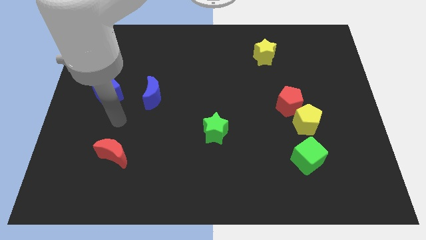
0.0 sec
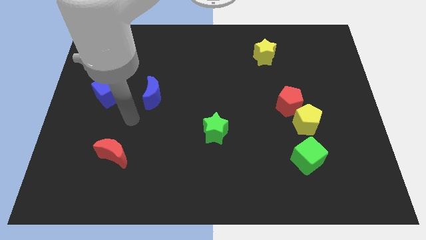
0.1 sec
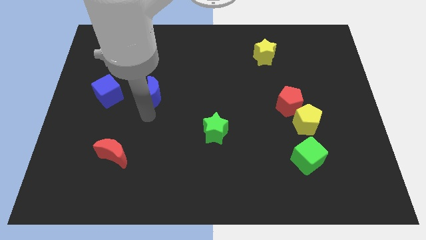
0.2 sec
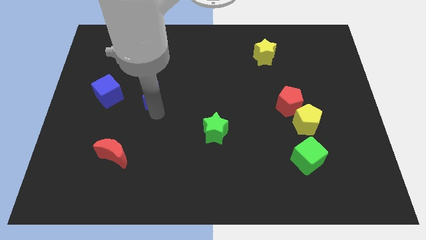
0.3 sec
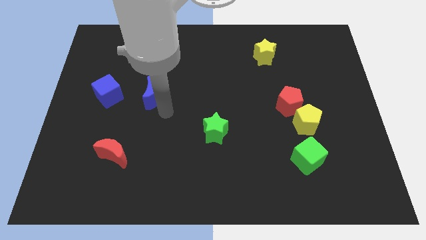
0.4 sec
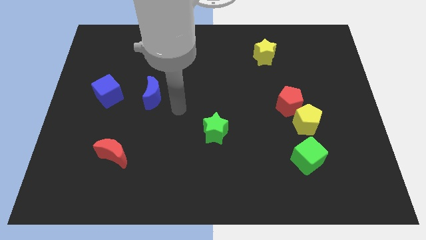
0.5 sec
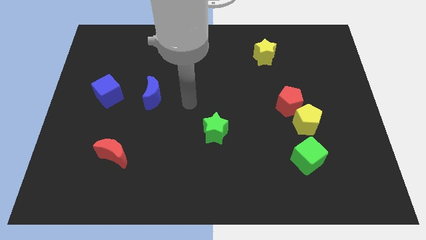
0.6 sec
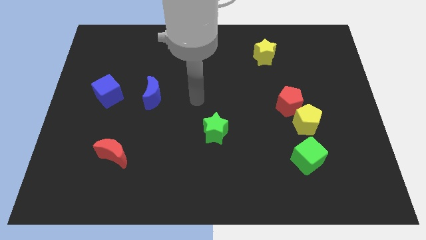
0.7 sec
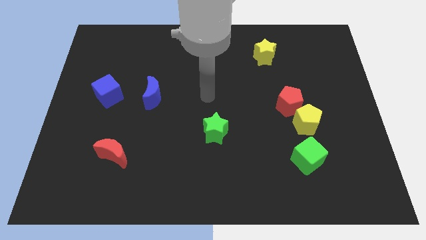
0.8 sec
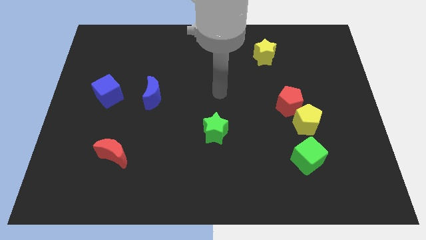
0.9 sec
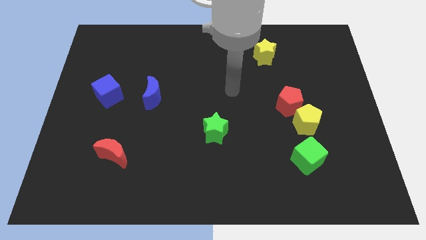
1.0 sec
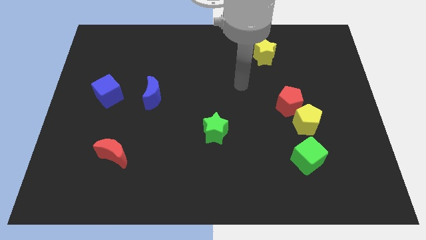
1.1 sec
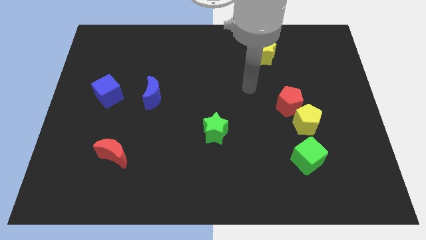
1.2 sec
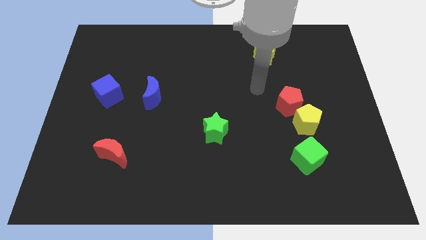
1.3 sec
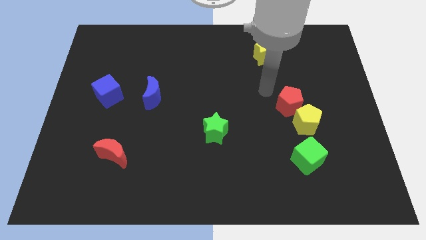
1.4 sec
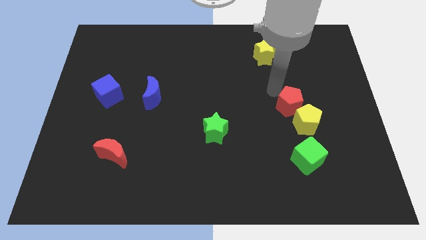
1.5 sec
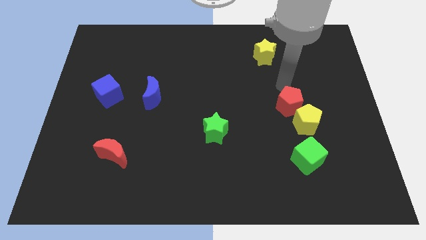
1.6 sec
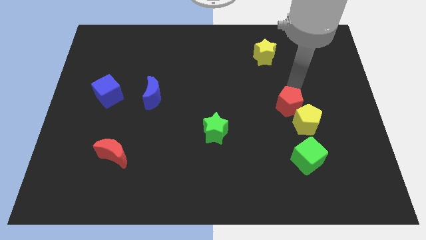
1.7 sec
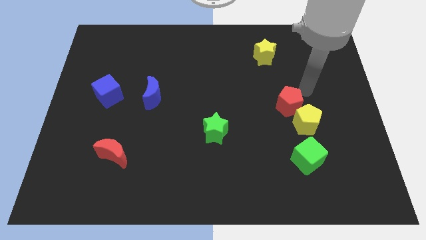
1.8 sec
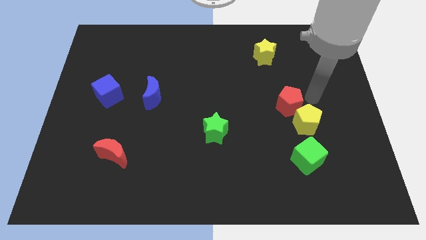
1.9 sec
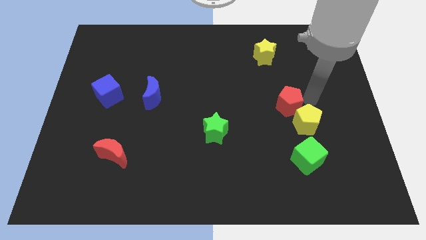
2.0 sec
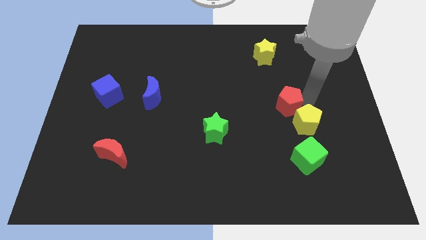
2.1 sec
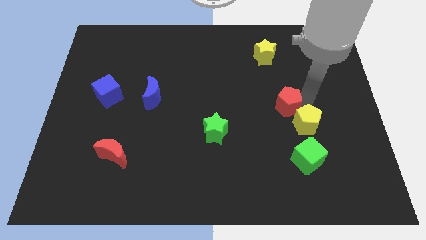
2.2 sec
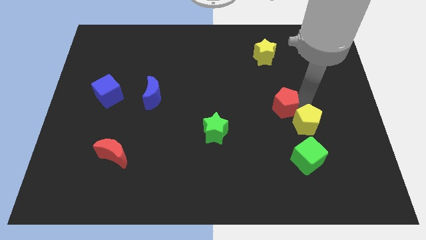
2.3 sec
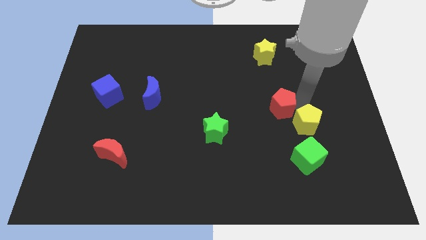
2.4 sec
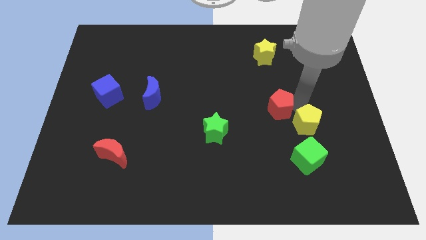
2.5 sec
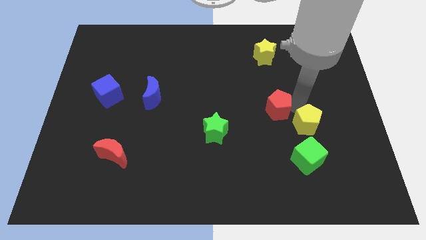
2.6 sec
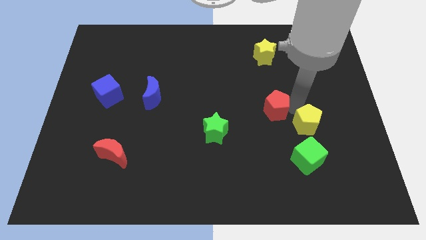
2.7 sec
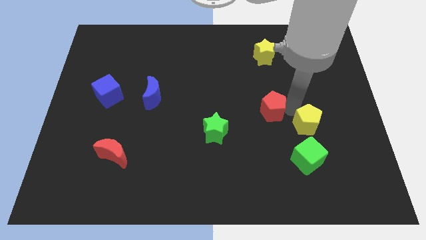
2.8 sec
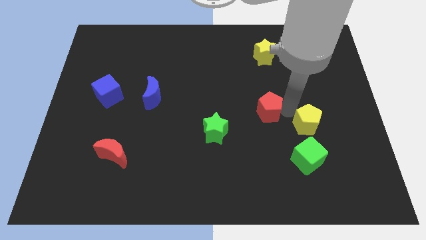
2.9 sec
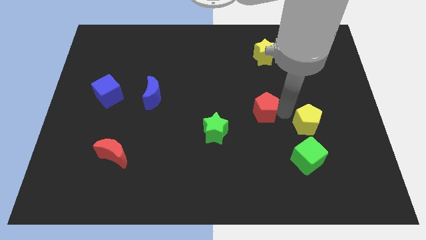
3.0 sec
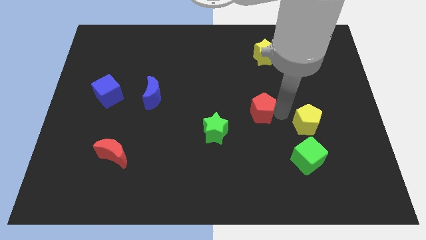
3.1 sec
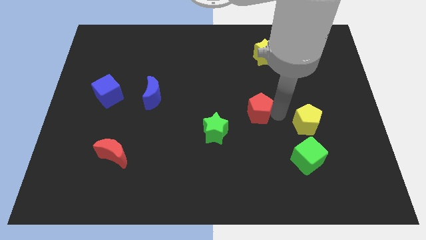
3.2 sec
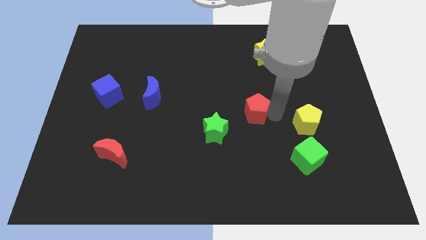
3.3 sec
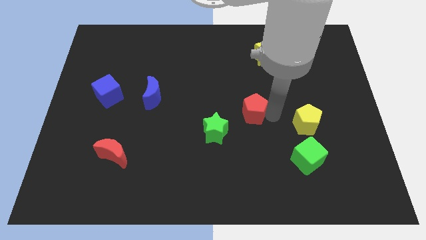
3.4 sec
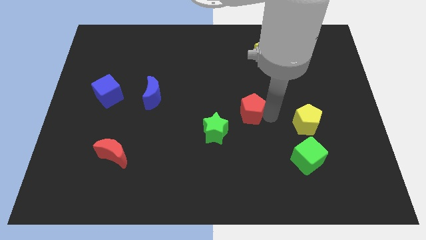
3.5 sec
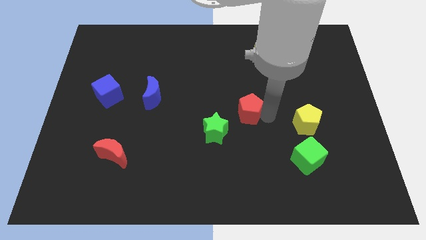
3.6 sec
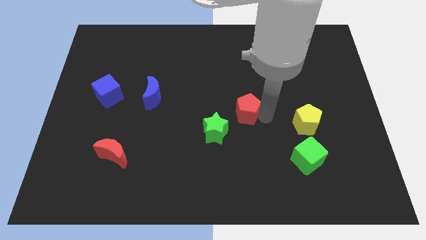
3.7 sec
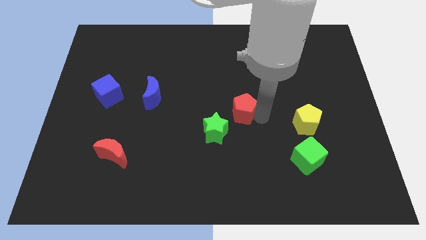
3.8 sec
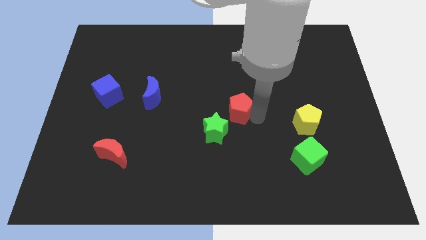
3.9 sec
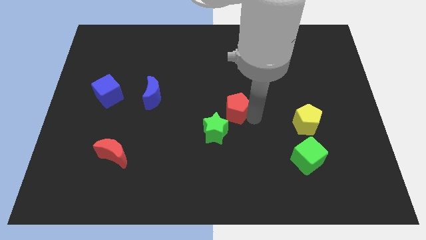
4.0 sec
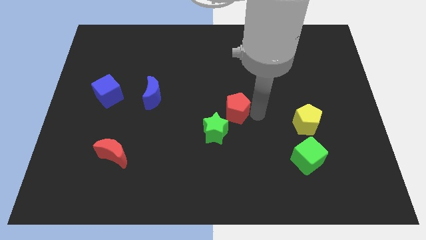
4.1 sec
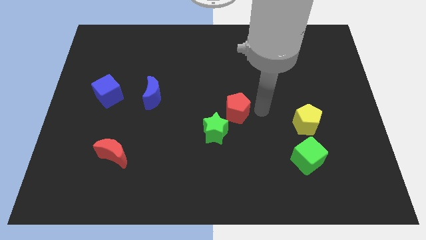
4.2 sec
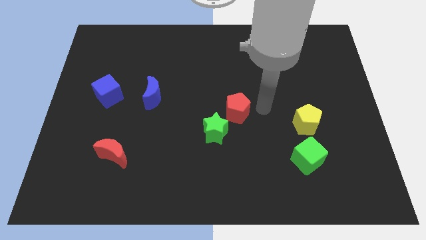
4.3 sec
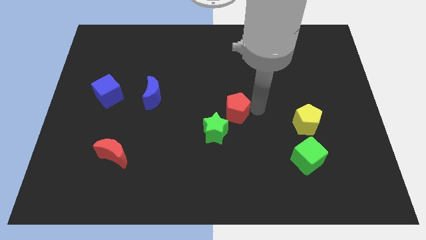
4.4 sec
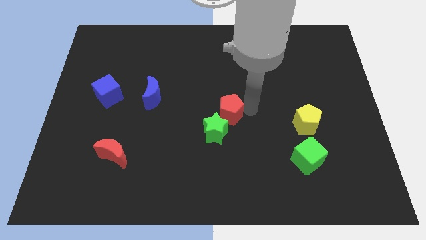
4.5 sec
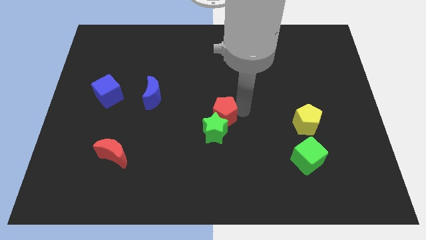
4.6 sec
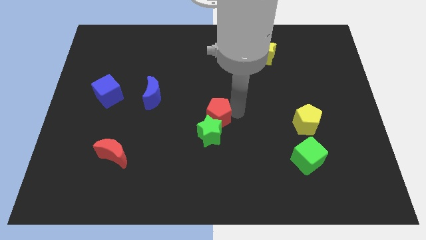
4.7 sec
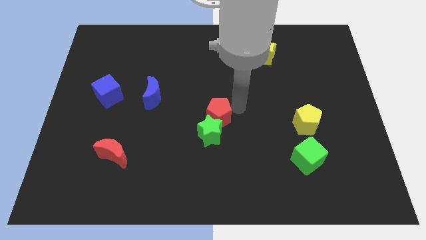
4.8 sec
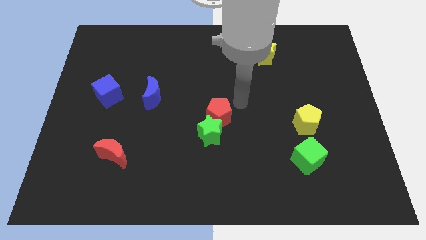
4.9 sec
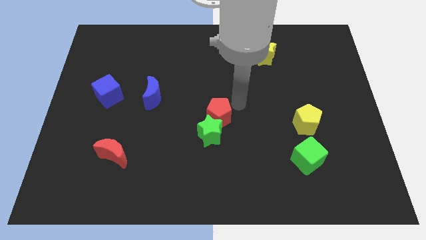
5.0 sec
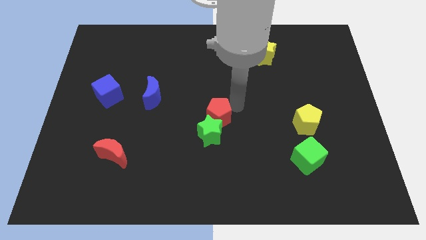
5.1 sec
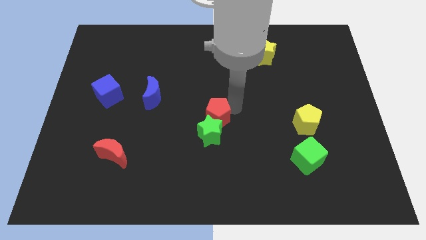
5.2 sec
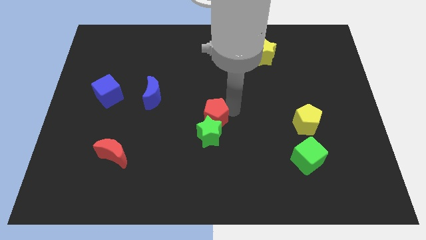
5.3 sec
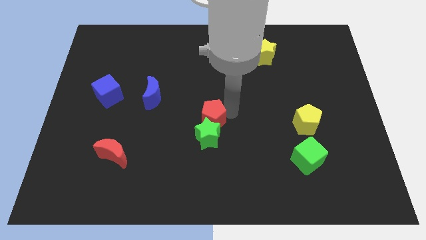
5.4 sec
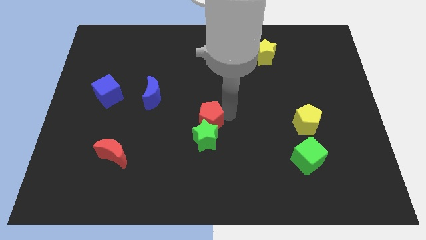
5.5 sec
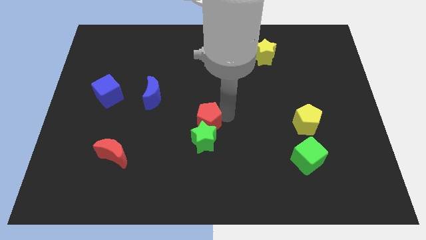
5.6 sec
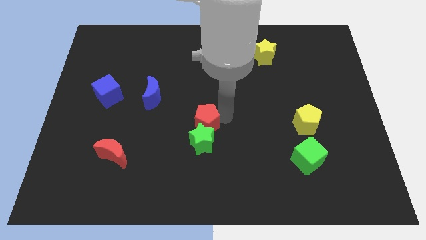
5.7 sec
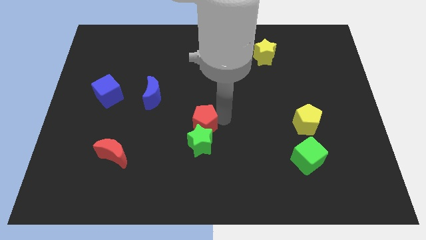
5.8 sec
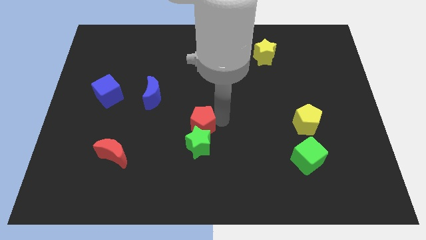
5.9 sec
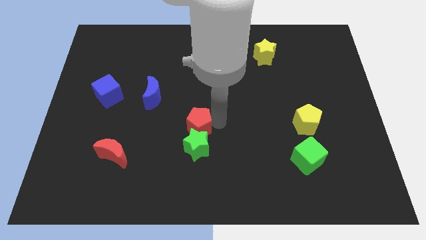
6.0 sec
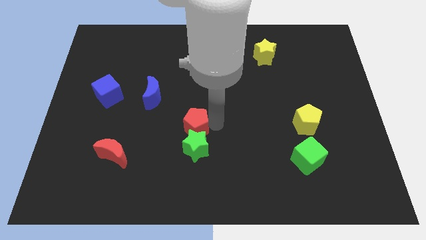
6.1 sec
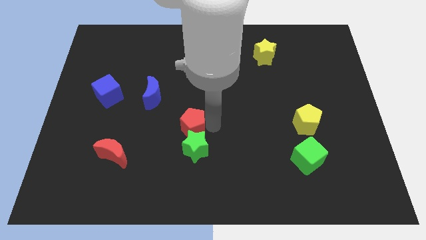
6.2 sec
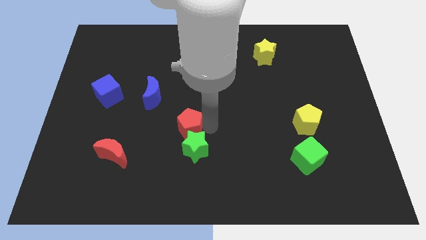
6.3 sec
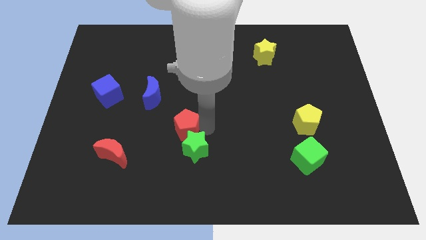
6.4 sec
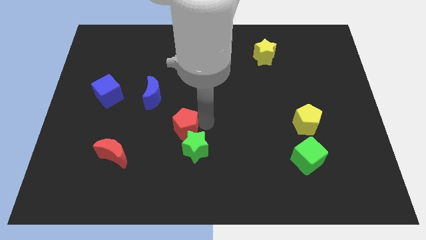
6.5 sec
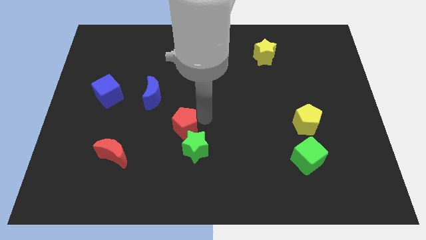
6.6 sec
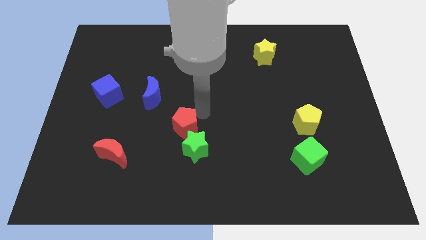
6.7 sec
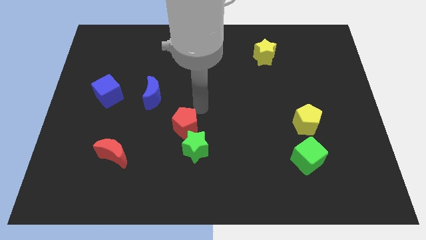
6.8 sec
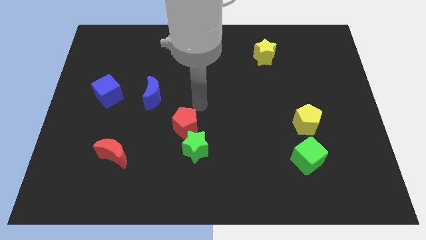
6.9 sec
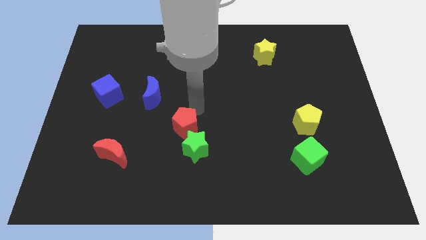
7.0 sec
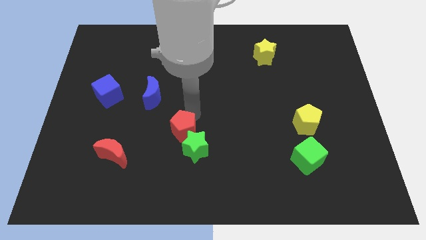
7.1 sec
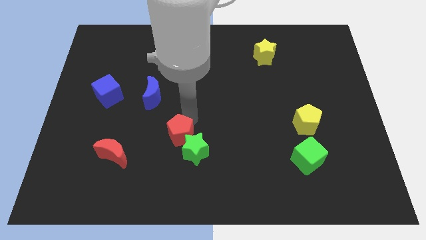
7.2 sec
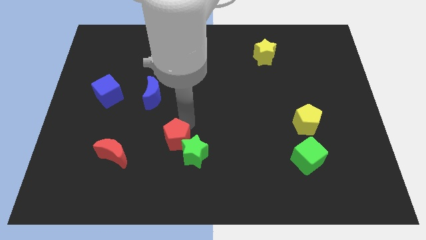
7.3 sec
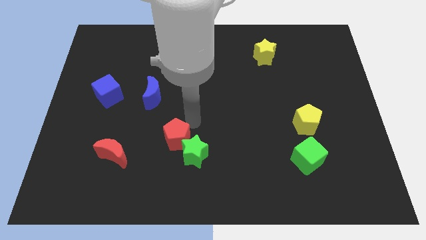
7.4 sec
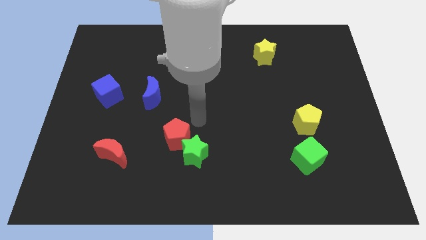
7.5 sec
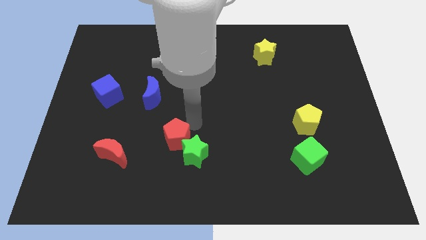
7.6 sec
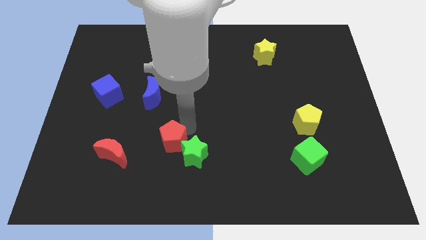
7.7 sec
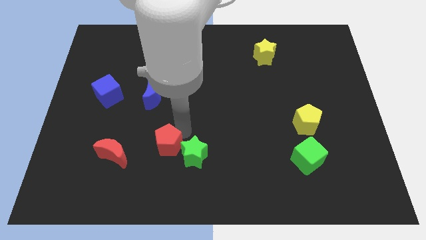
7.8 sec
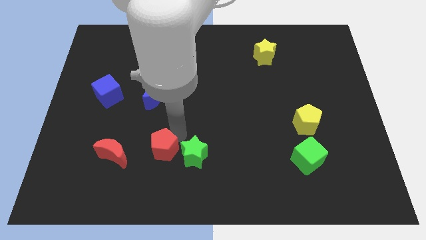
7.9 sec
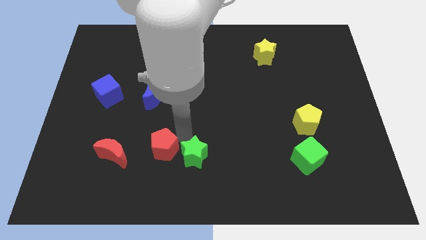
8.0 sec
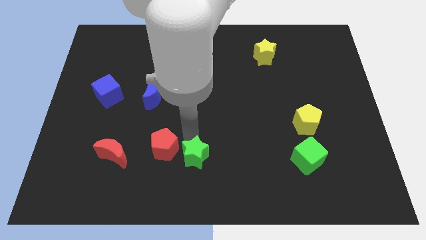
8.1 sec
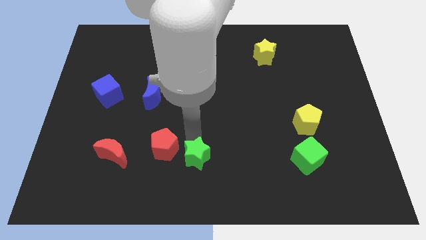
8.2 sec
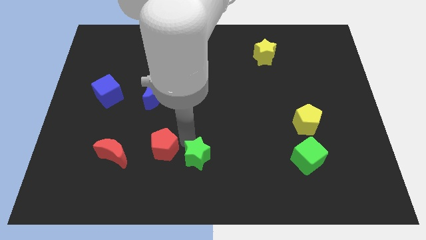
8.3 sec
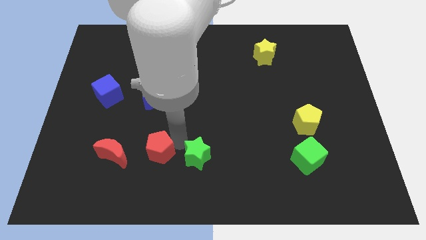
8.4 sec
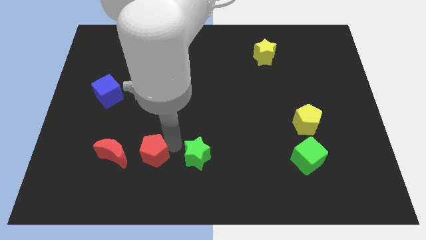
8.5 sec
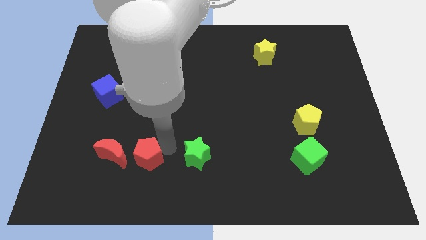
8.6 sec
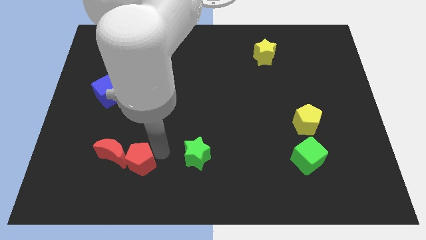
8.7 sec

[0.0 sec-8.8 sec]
move the red pentagon next to the red moon
